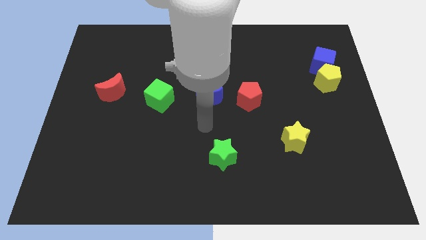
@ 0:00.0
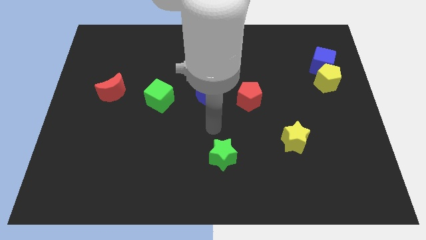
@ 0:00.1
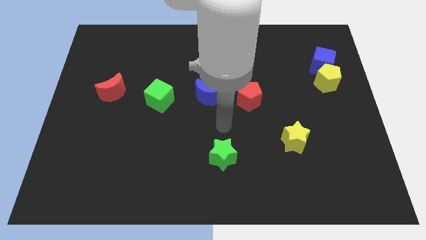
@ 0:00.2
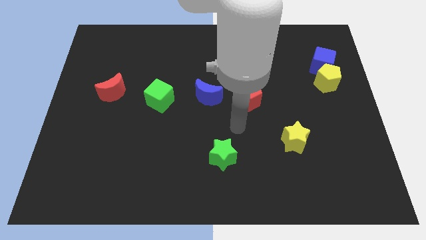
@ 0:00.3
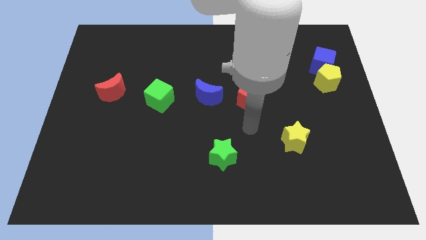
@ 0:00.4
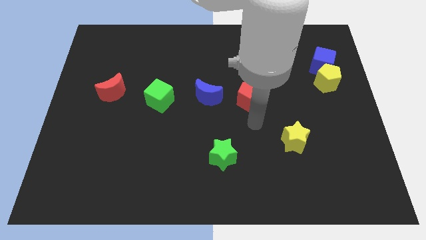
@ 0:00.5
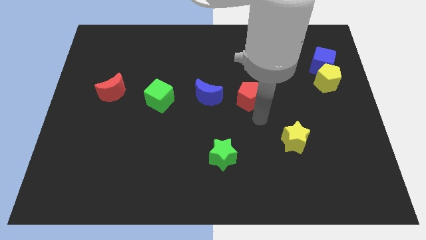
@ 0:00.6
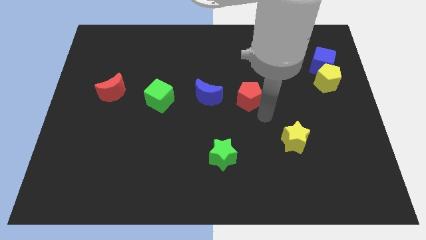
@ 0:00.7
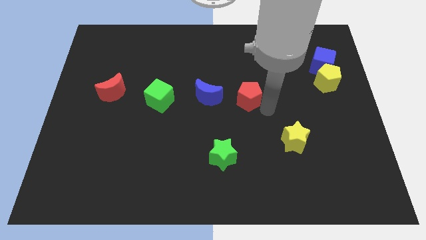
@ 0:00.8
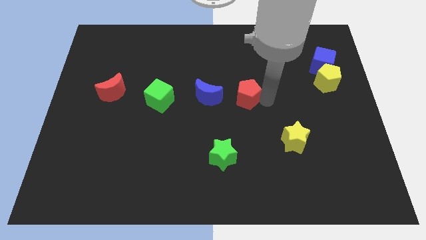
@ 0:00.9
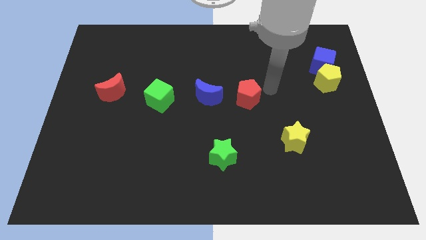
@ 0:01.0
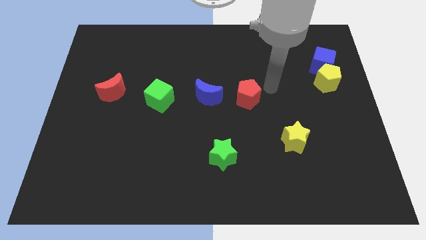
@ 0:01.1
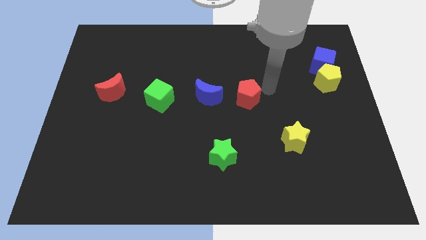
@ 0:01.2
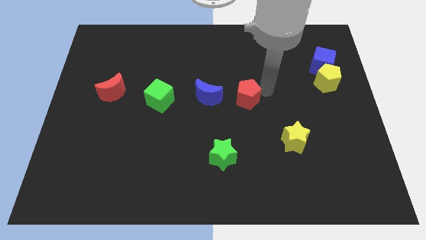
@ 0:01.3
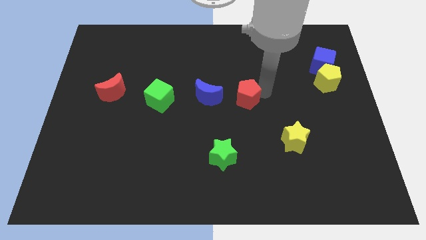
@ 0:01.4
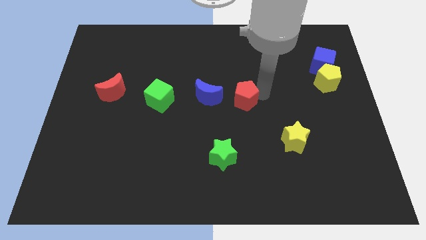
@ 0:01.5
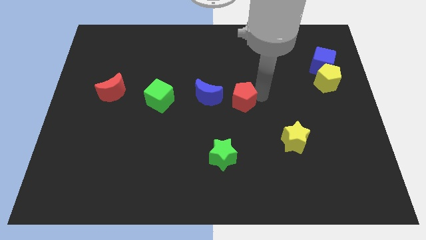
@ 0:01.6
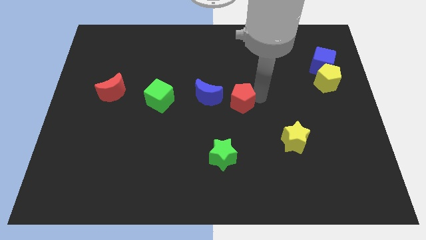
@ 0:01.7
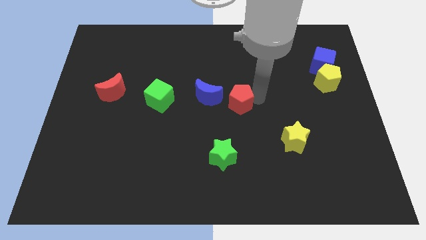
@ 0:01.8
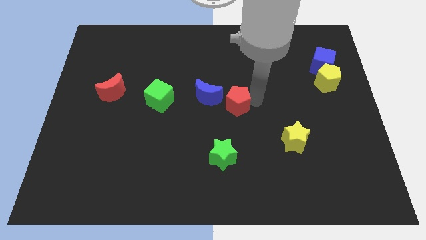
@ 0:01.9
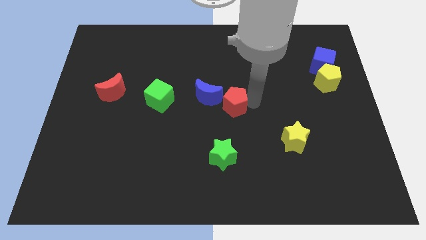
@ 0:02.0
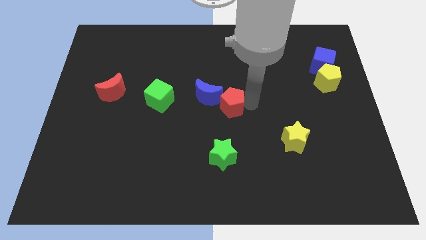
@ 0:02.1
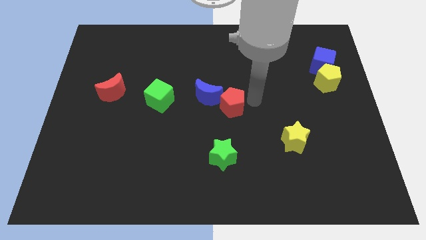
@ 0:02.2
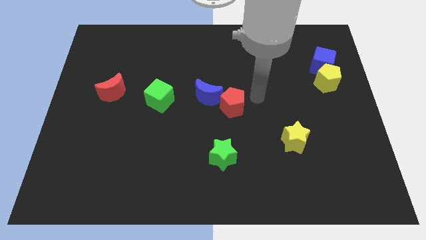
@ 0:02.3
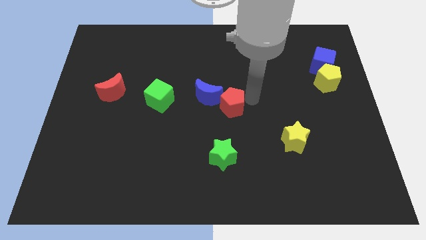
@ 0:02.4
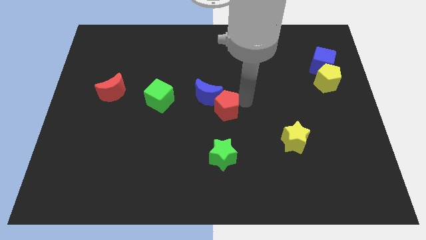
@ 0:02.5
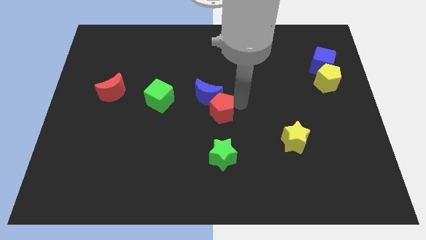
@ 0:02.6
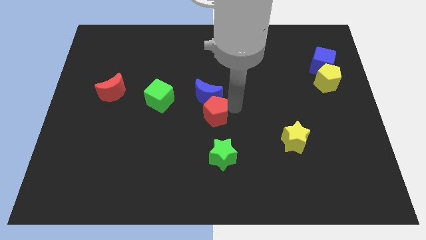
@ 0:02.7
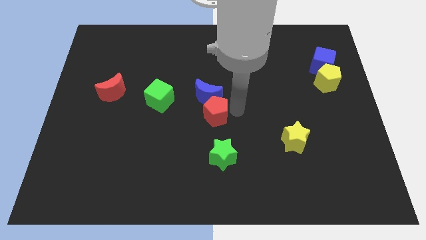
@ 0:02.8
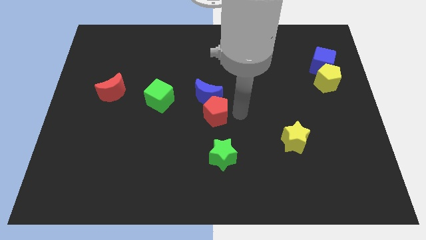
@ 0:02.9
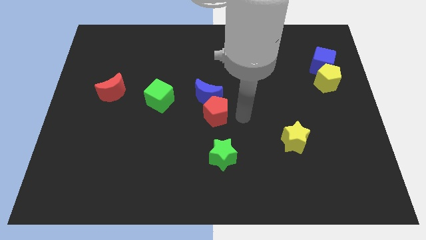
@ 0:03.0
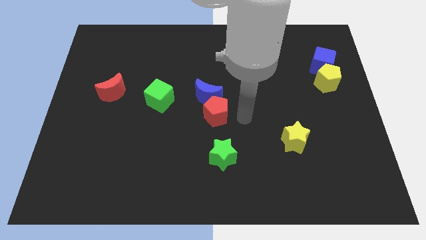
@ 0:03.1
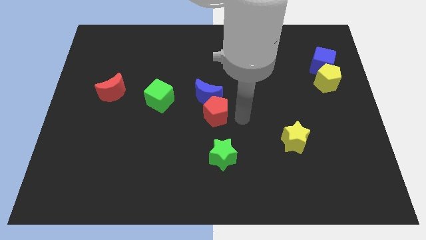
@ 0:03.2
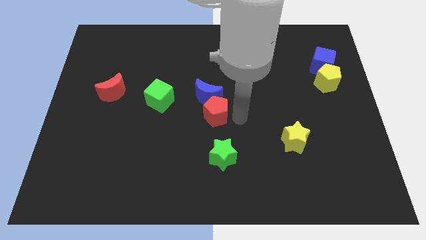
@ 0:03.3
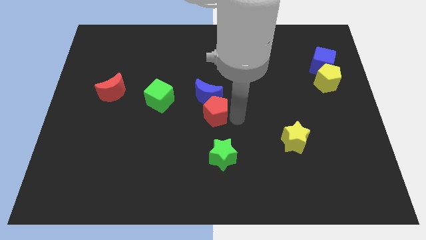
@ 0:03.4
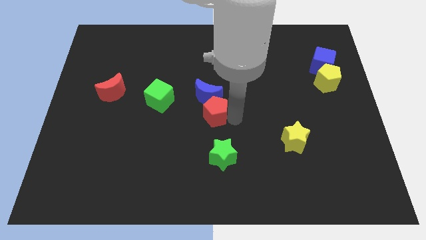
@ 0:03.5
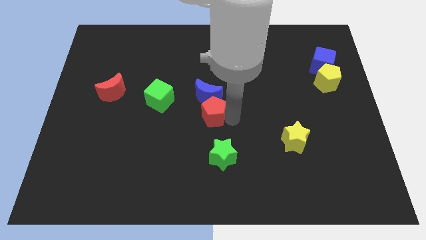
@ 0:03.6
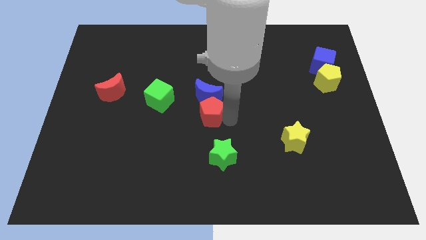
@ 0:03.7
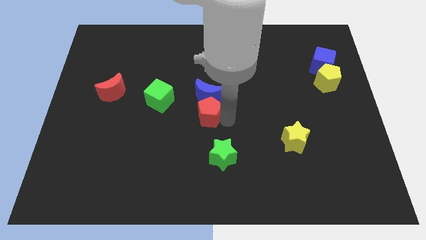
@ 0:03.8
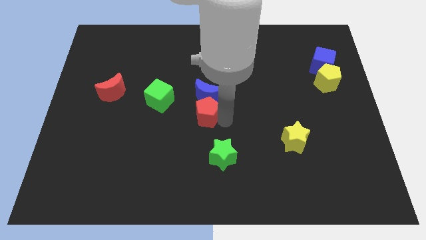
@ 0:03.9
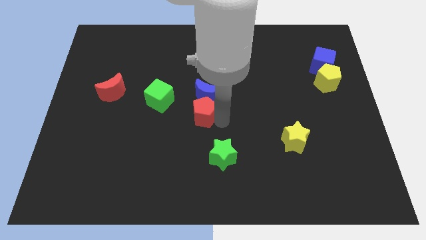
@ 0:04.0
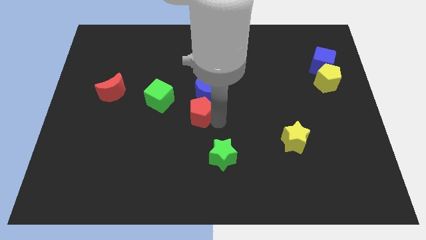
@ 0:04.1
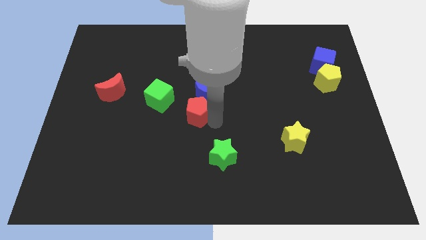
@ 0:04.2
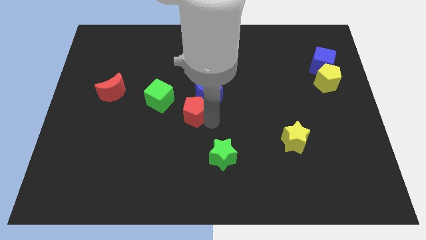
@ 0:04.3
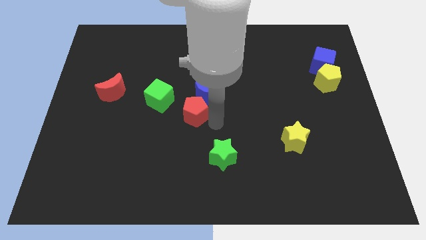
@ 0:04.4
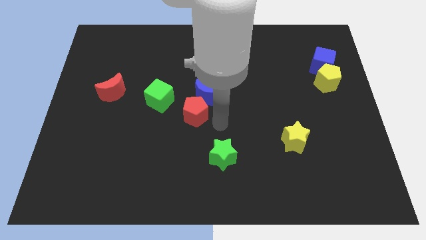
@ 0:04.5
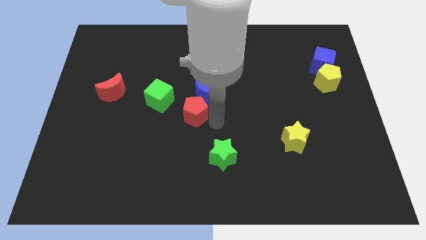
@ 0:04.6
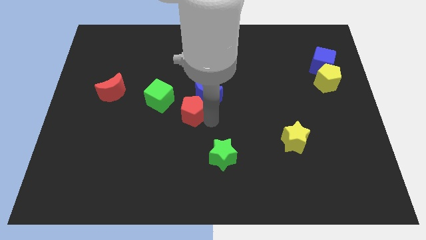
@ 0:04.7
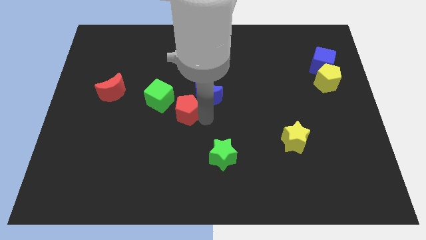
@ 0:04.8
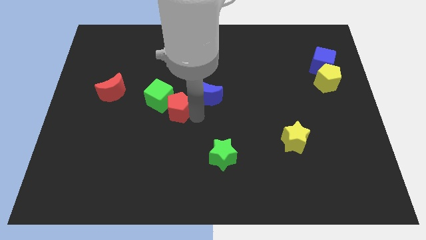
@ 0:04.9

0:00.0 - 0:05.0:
move the red pentagon towards the green cube

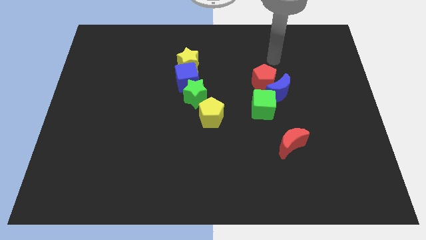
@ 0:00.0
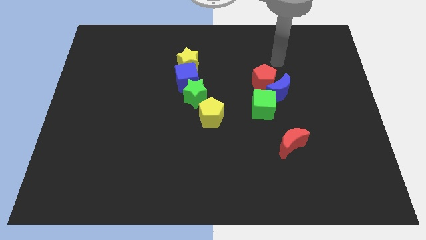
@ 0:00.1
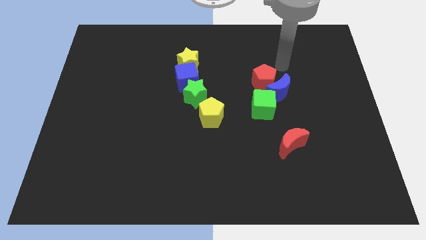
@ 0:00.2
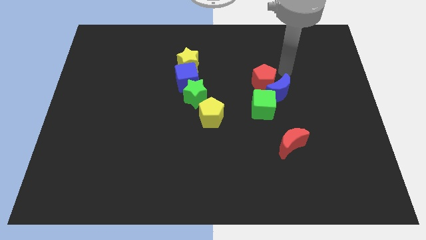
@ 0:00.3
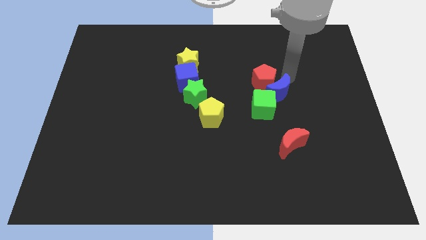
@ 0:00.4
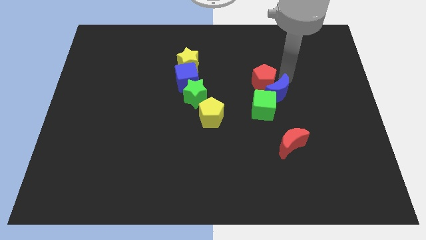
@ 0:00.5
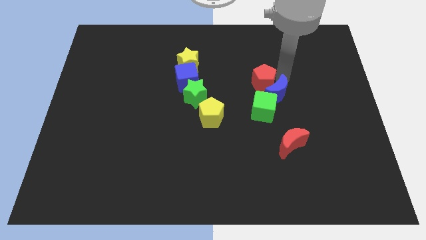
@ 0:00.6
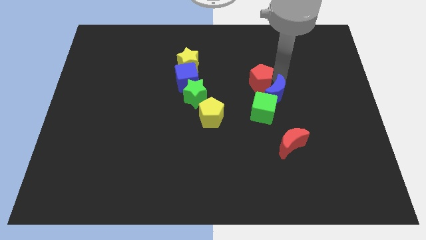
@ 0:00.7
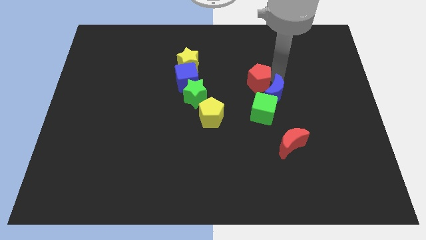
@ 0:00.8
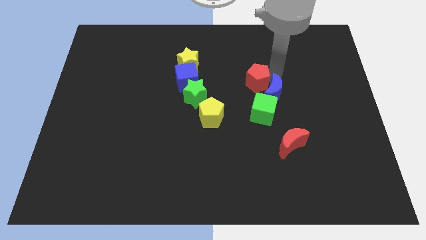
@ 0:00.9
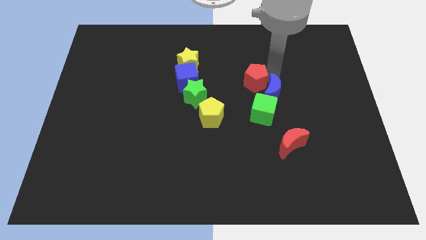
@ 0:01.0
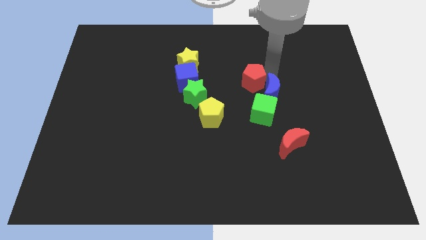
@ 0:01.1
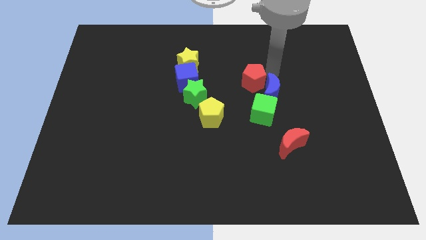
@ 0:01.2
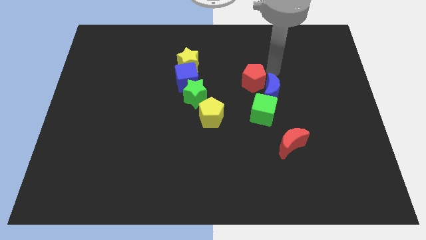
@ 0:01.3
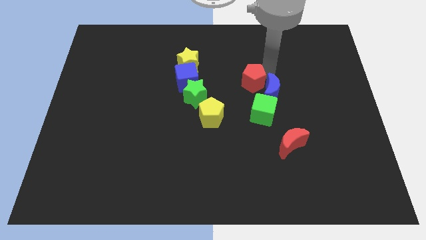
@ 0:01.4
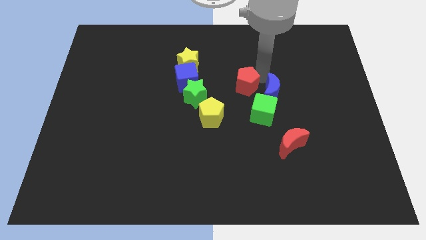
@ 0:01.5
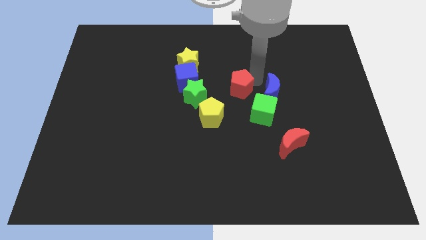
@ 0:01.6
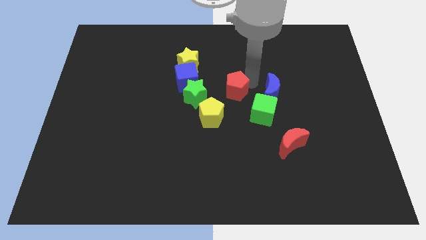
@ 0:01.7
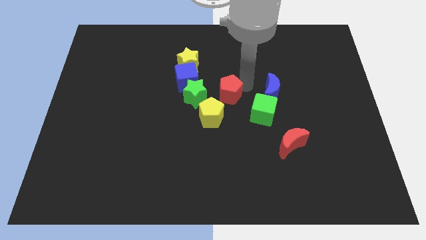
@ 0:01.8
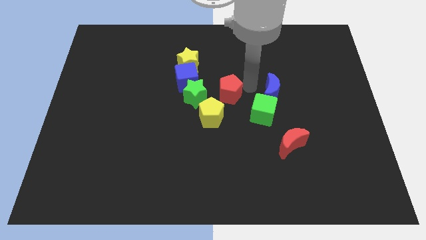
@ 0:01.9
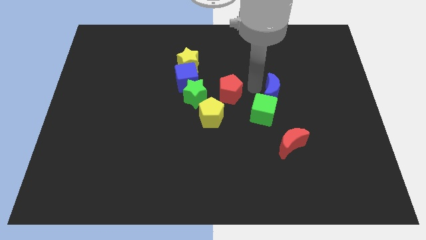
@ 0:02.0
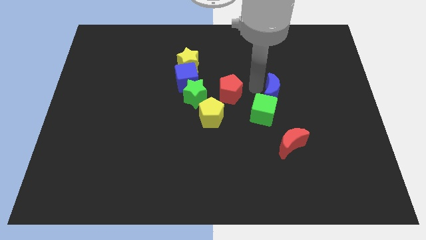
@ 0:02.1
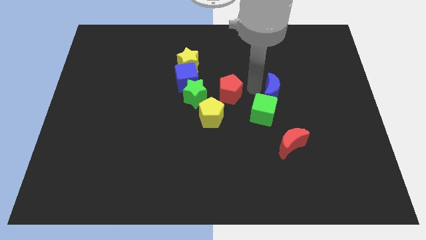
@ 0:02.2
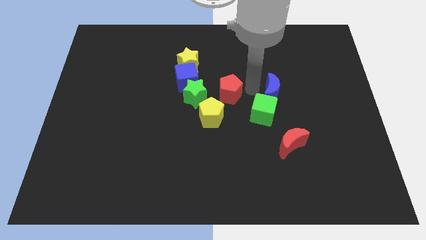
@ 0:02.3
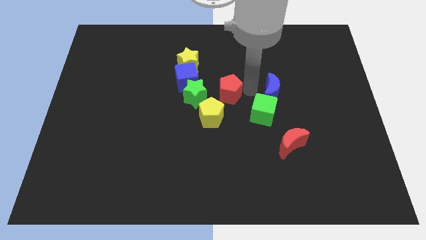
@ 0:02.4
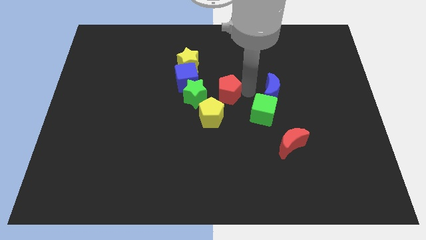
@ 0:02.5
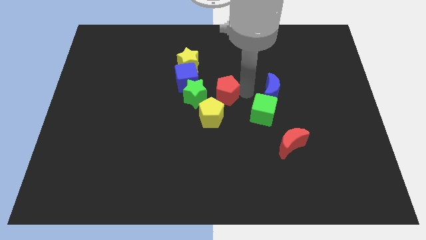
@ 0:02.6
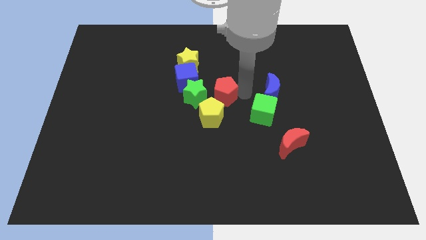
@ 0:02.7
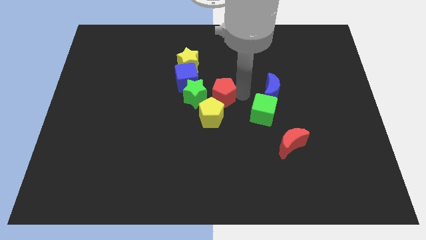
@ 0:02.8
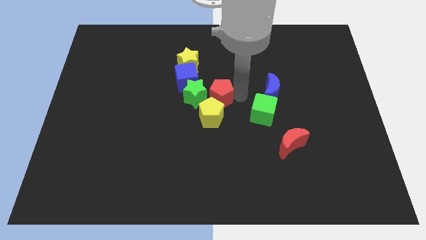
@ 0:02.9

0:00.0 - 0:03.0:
slide the red pentagon to the green star
